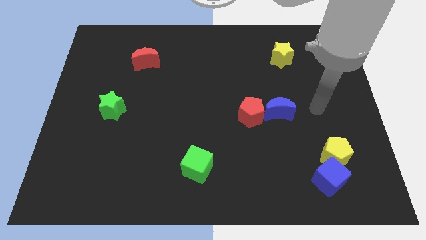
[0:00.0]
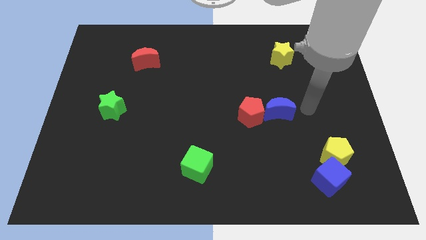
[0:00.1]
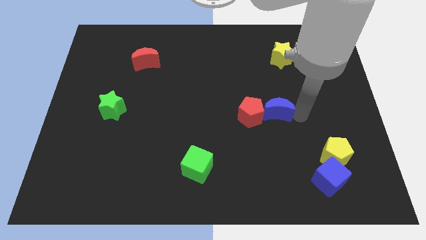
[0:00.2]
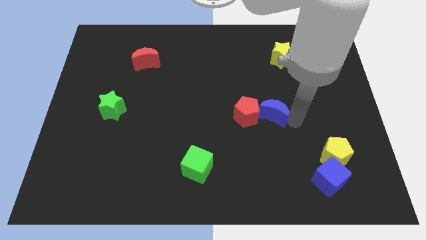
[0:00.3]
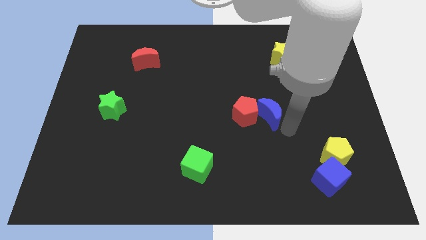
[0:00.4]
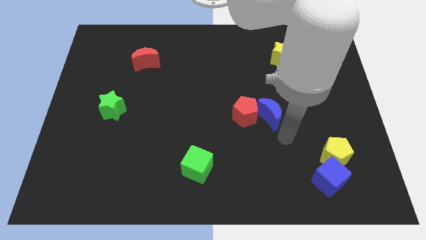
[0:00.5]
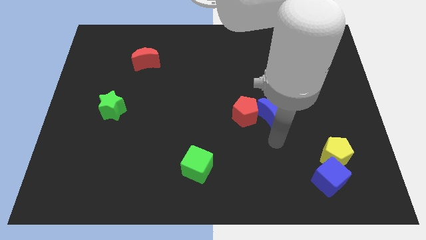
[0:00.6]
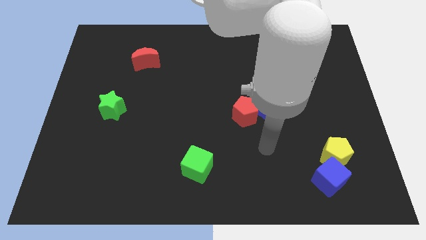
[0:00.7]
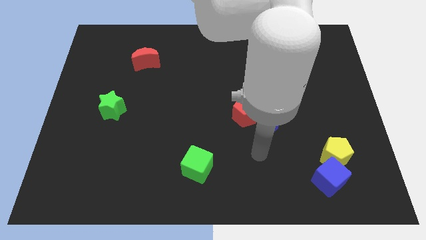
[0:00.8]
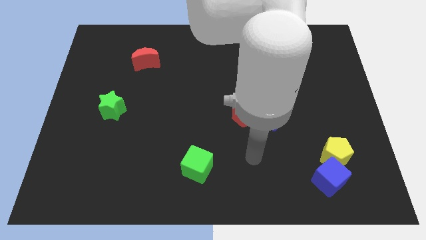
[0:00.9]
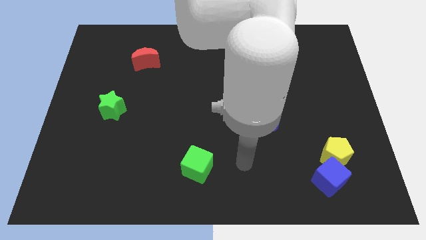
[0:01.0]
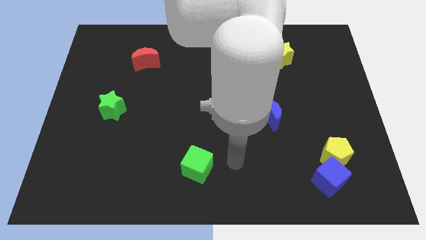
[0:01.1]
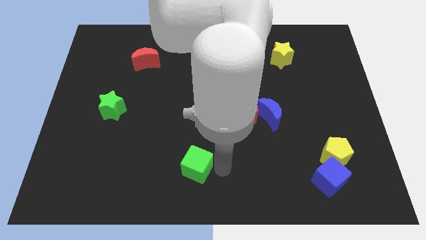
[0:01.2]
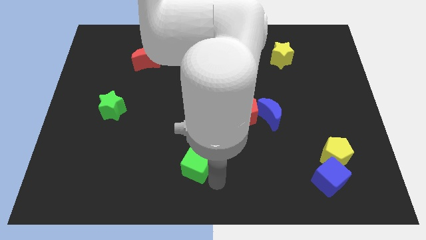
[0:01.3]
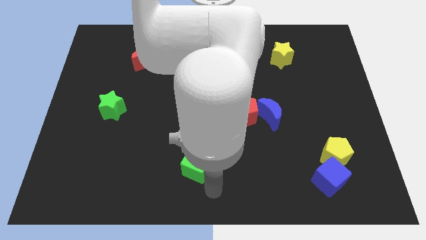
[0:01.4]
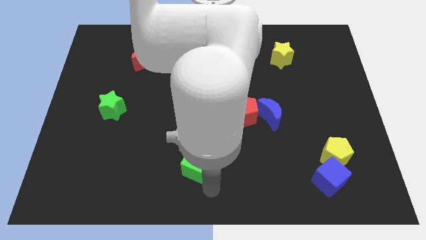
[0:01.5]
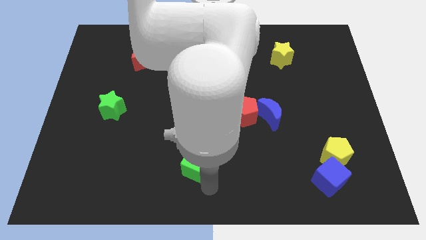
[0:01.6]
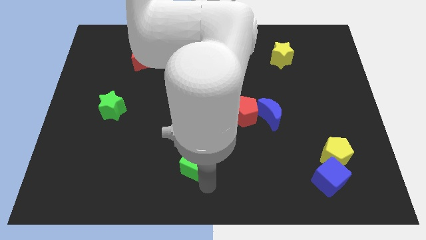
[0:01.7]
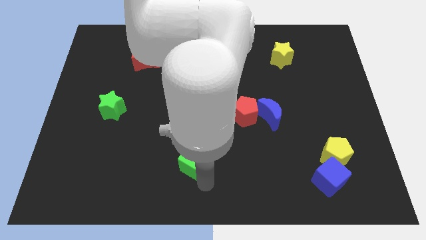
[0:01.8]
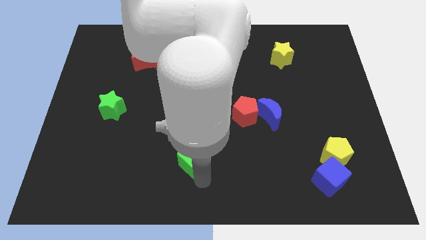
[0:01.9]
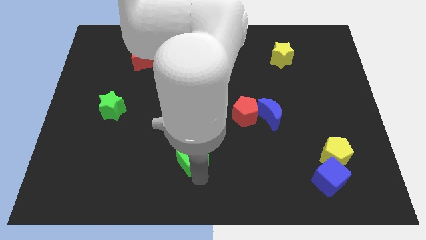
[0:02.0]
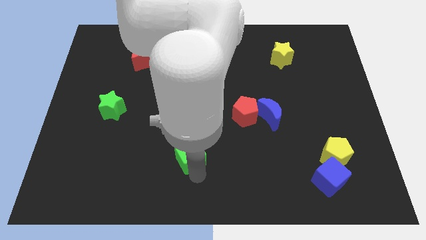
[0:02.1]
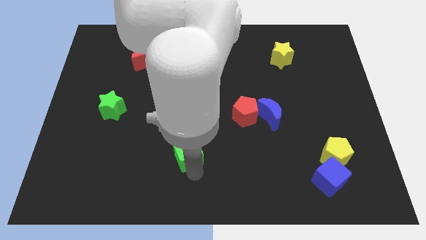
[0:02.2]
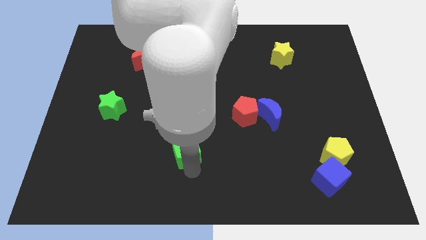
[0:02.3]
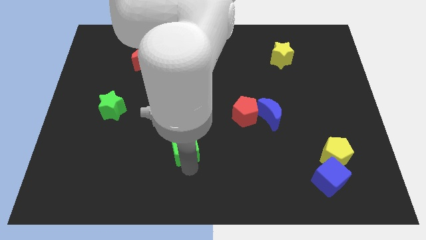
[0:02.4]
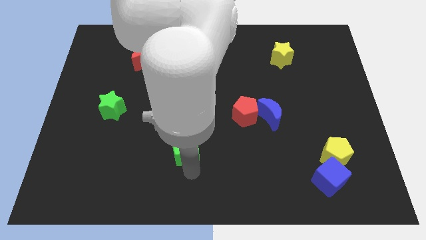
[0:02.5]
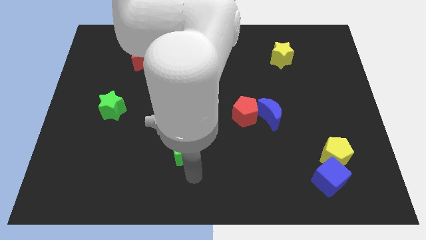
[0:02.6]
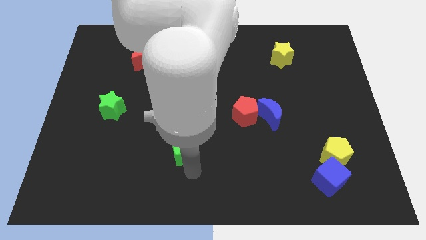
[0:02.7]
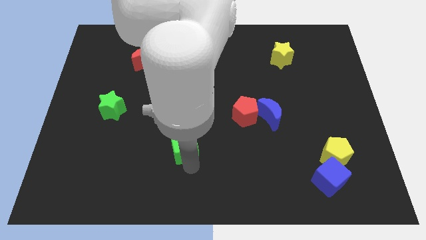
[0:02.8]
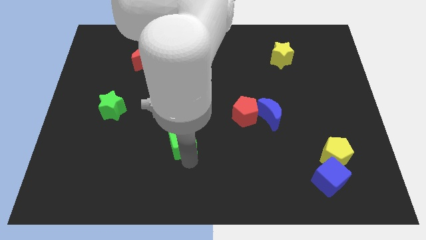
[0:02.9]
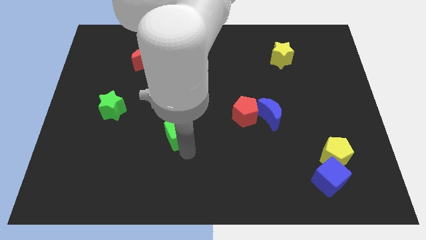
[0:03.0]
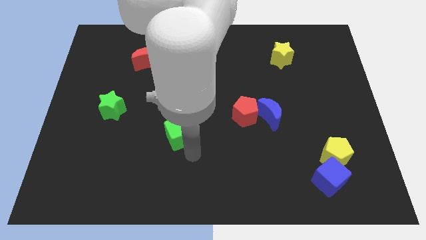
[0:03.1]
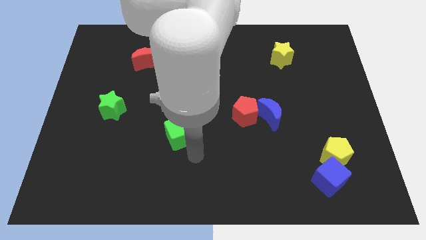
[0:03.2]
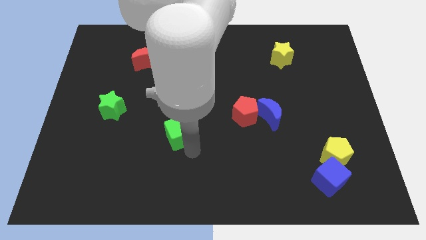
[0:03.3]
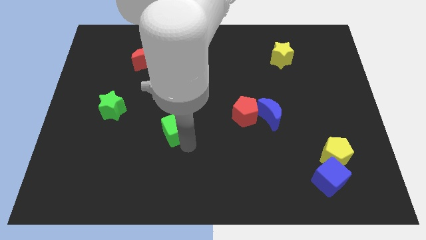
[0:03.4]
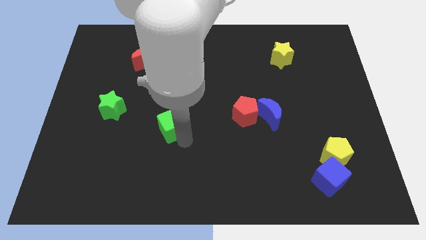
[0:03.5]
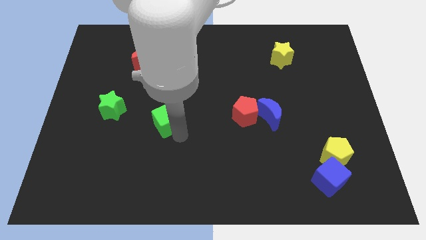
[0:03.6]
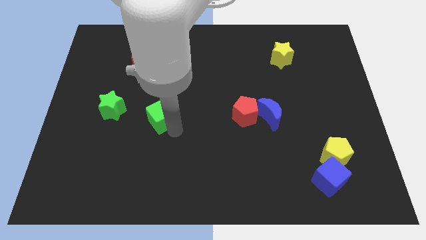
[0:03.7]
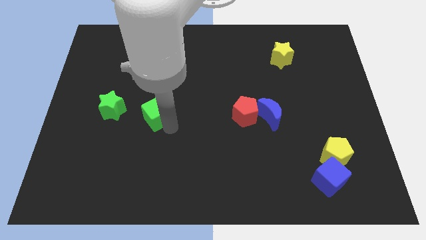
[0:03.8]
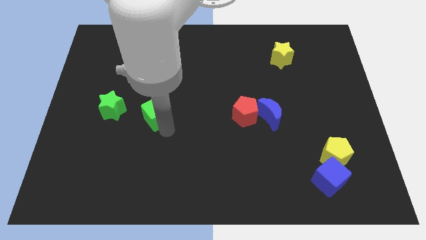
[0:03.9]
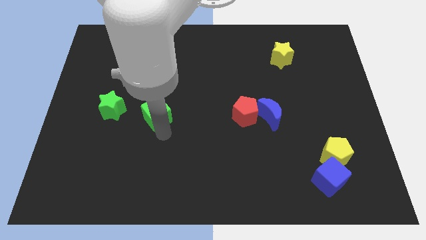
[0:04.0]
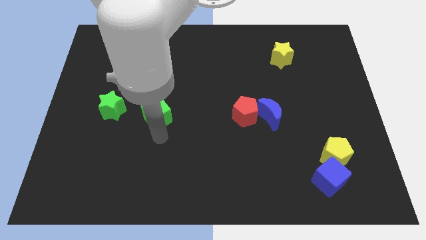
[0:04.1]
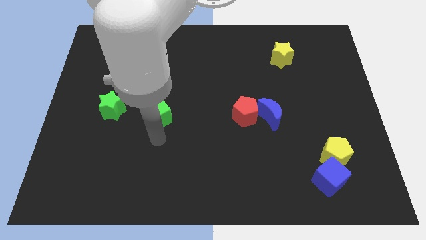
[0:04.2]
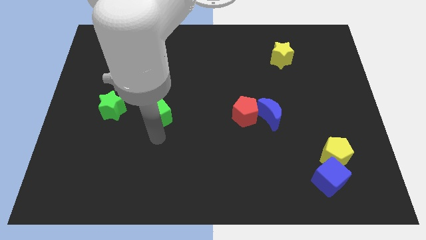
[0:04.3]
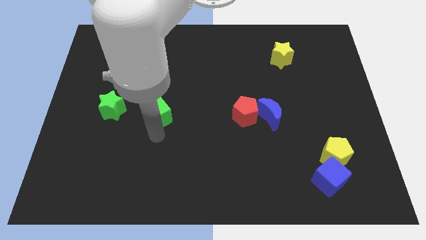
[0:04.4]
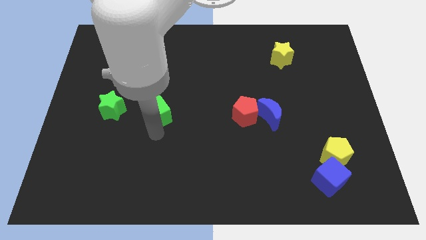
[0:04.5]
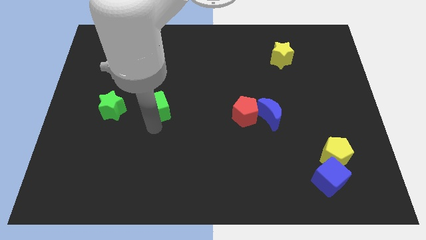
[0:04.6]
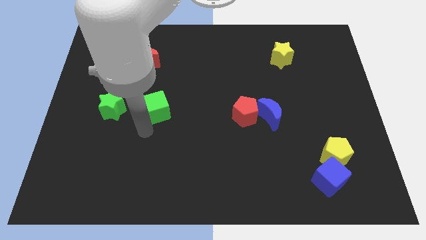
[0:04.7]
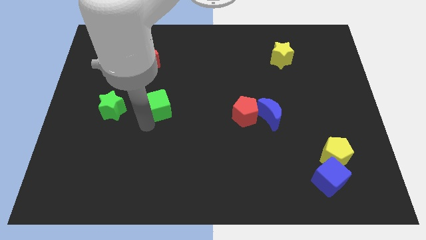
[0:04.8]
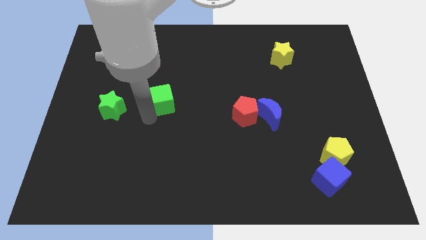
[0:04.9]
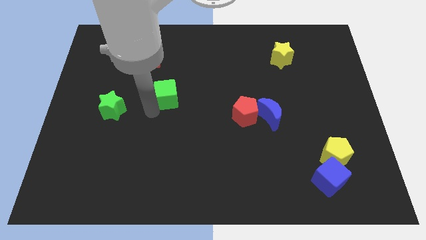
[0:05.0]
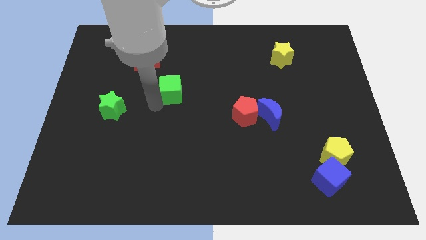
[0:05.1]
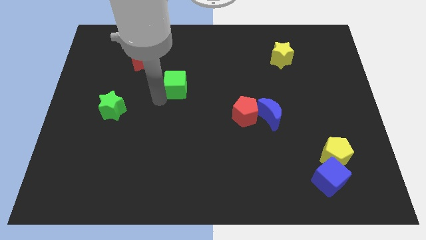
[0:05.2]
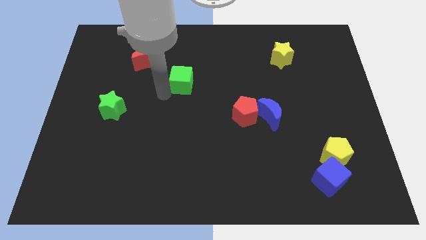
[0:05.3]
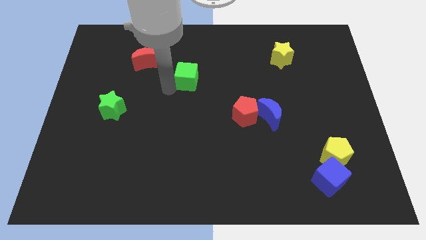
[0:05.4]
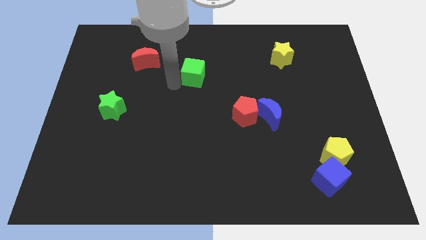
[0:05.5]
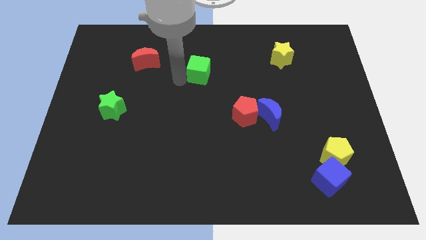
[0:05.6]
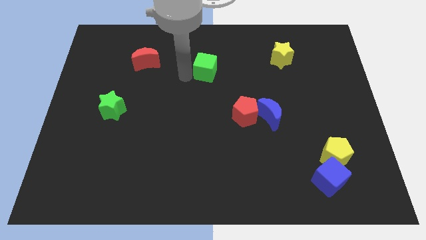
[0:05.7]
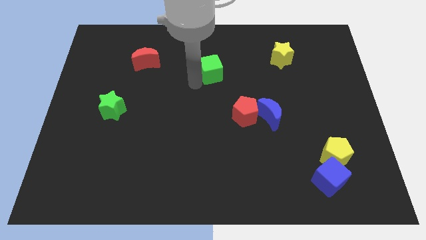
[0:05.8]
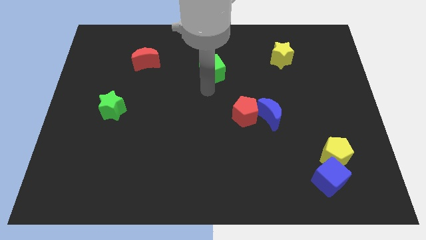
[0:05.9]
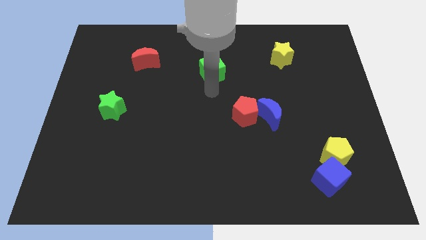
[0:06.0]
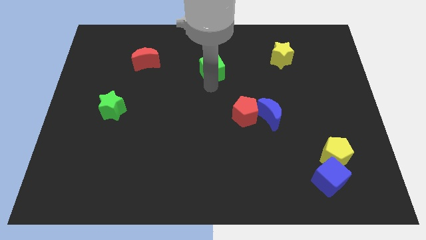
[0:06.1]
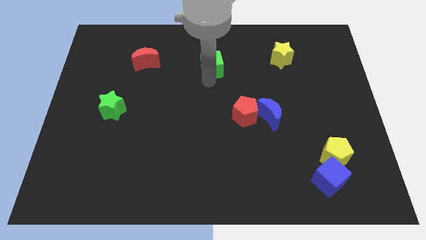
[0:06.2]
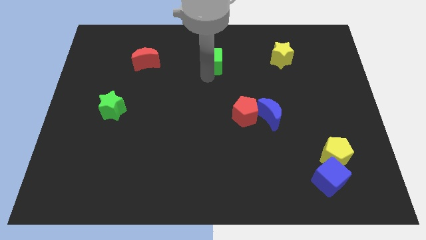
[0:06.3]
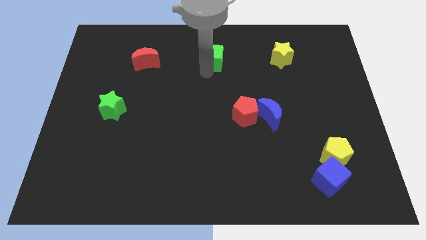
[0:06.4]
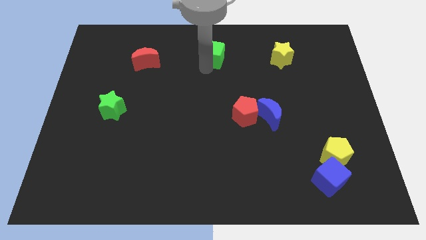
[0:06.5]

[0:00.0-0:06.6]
push the green cube to the towards your base
